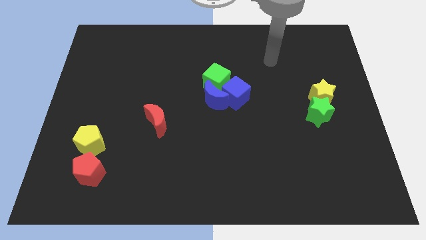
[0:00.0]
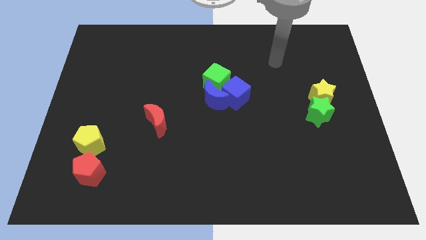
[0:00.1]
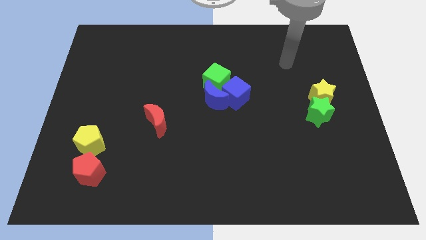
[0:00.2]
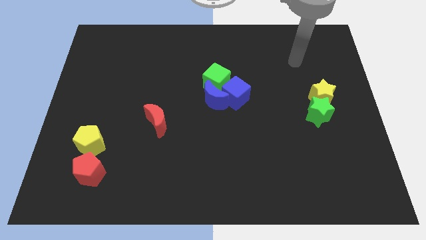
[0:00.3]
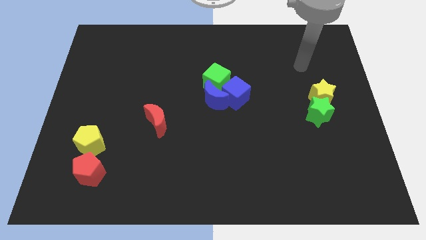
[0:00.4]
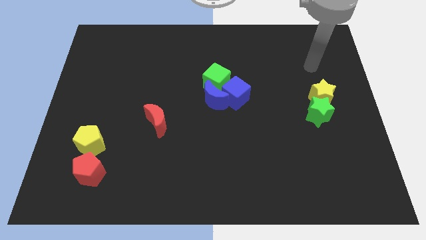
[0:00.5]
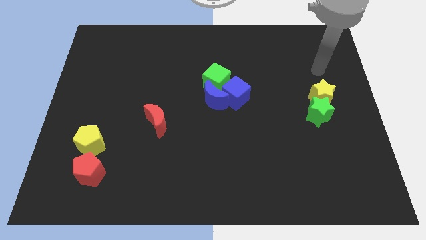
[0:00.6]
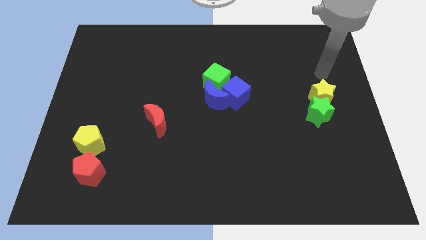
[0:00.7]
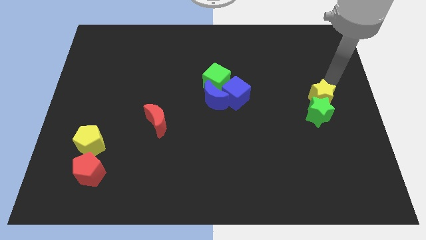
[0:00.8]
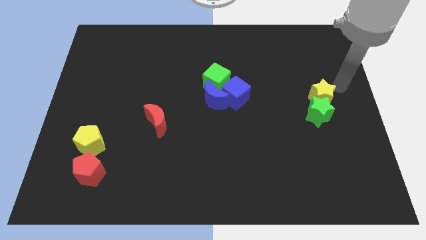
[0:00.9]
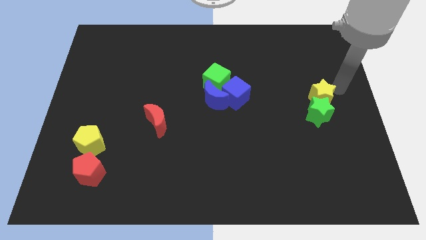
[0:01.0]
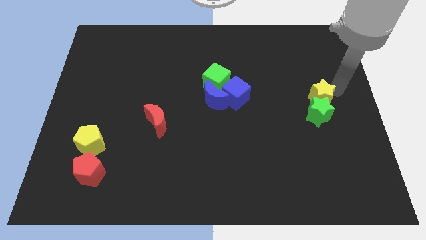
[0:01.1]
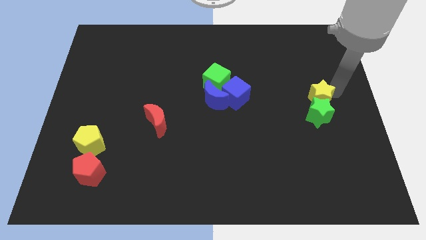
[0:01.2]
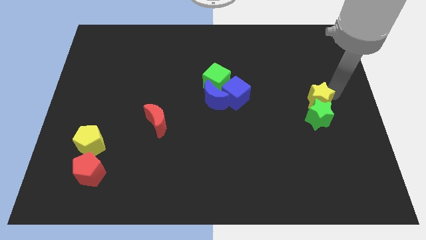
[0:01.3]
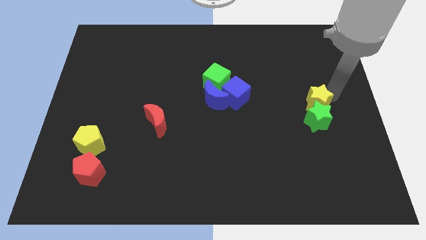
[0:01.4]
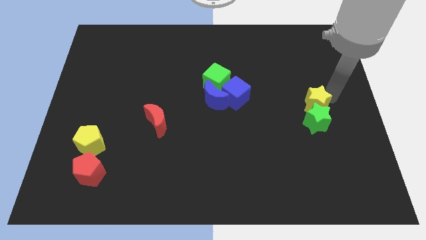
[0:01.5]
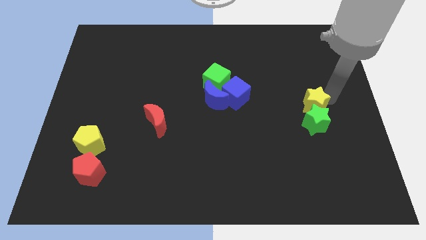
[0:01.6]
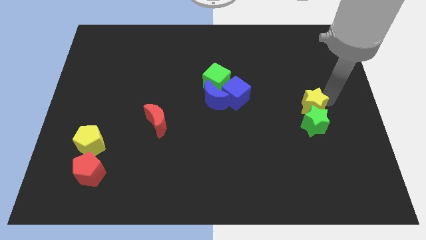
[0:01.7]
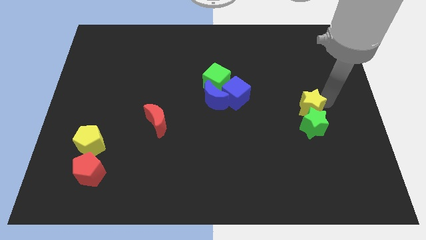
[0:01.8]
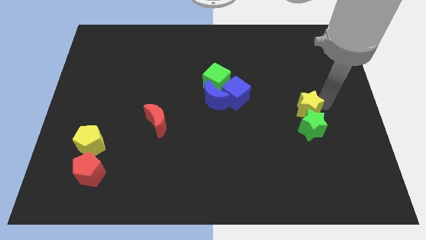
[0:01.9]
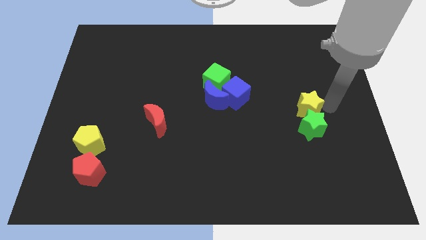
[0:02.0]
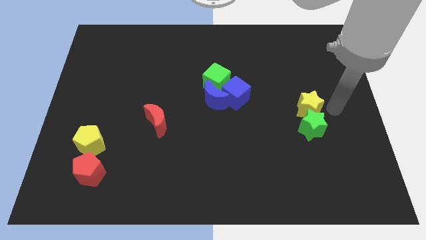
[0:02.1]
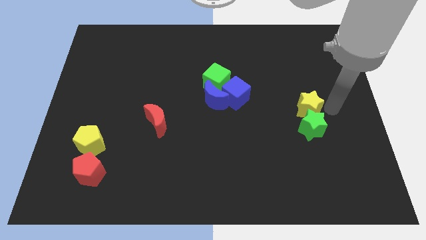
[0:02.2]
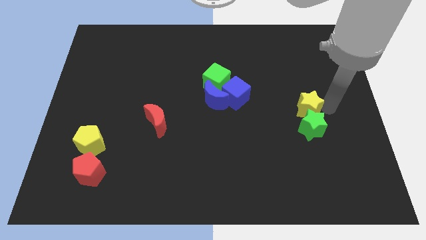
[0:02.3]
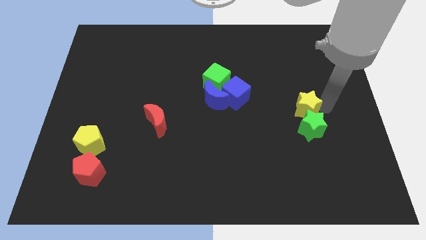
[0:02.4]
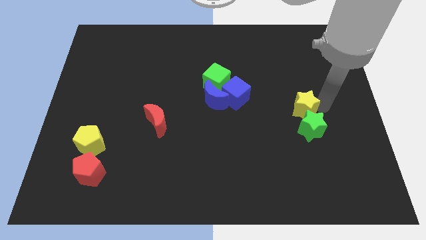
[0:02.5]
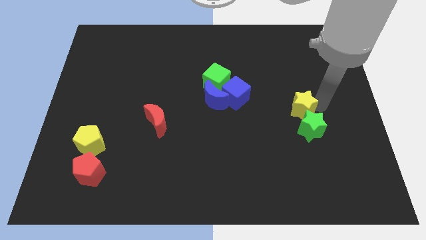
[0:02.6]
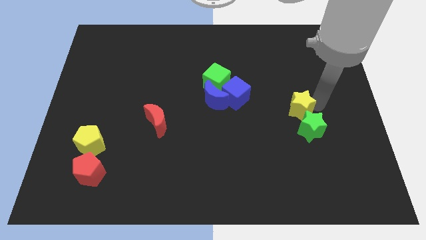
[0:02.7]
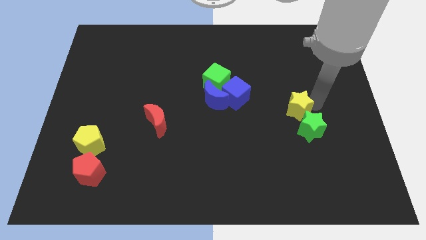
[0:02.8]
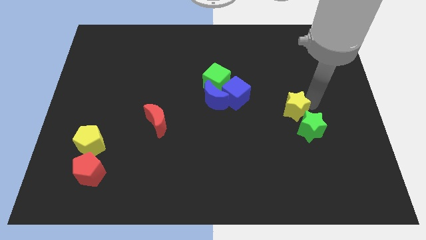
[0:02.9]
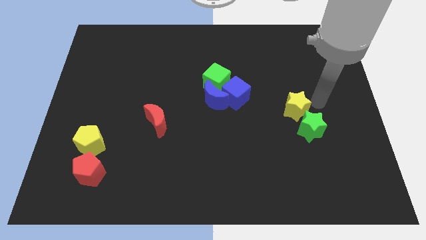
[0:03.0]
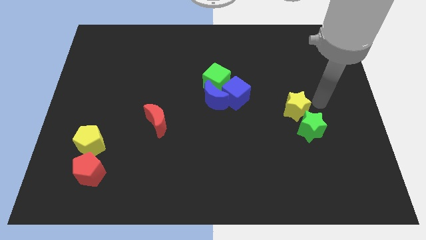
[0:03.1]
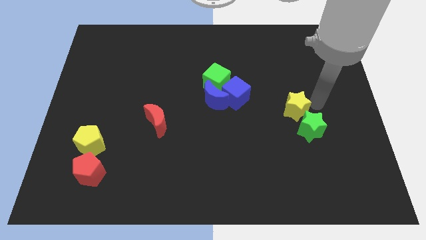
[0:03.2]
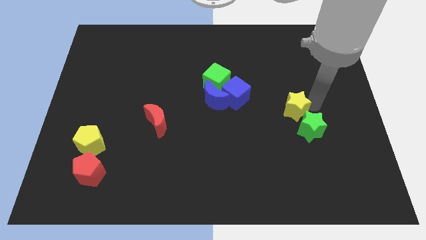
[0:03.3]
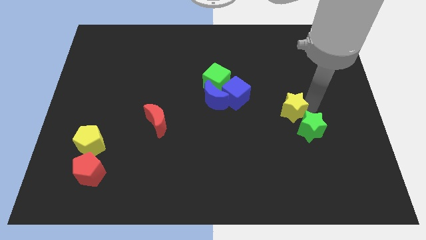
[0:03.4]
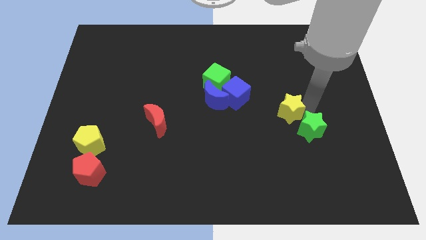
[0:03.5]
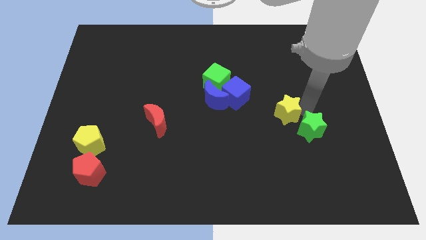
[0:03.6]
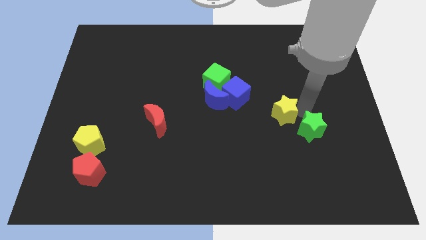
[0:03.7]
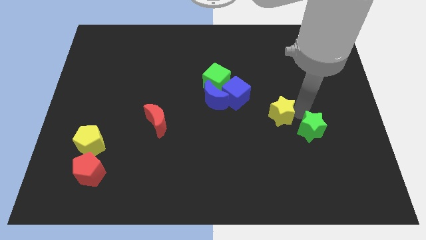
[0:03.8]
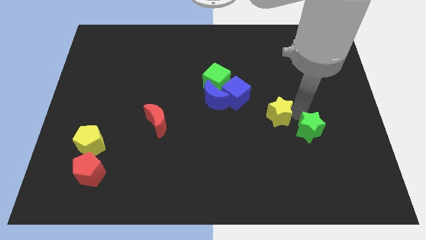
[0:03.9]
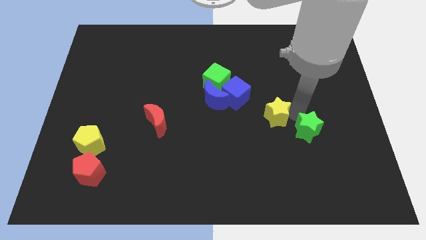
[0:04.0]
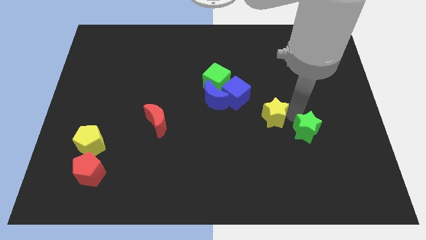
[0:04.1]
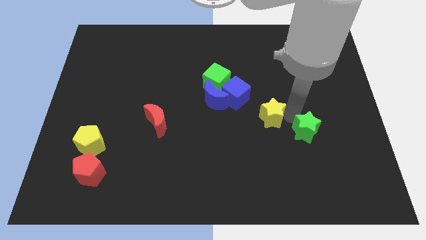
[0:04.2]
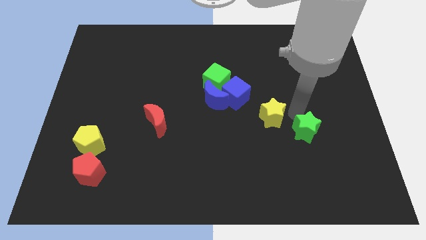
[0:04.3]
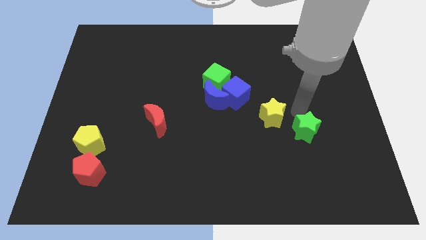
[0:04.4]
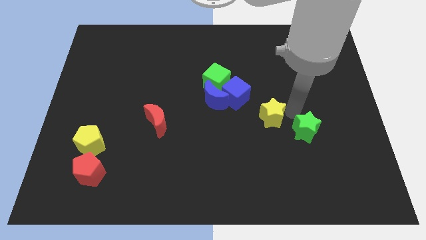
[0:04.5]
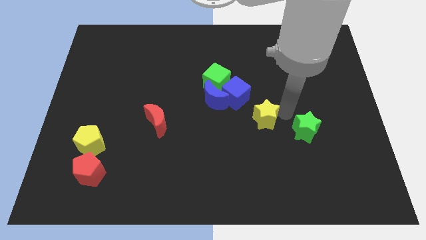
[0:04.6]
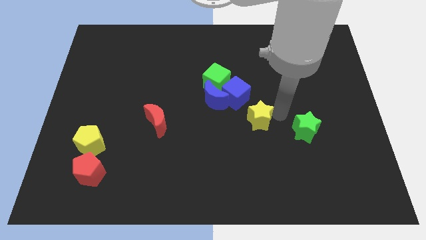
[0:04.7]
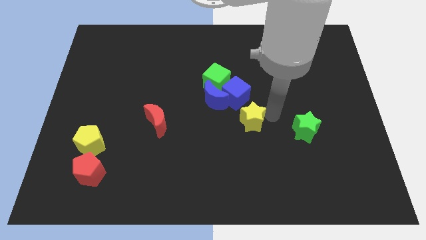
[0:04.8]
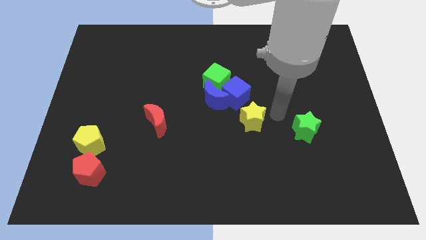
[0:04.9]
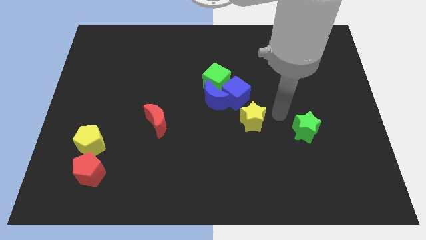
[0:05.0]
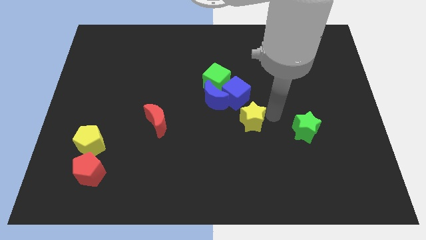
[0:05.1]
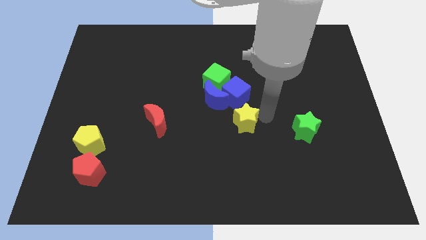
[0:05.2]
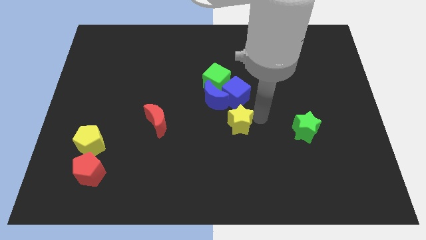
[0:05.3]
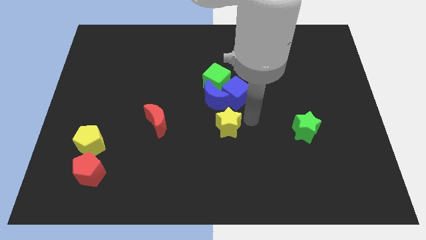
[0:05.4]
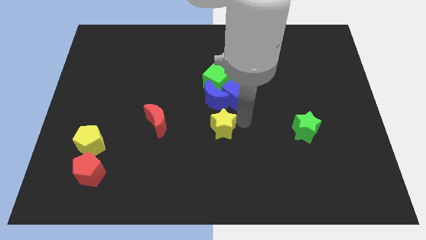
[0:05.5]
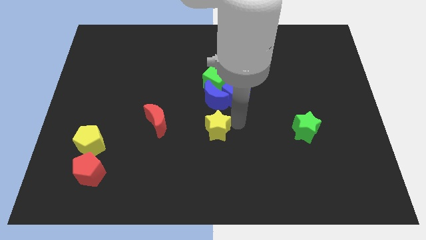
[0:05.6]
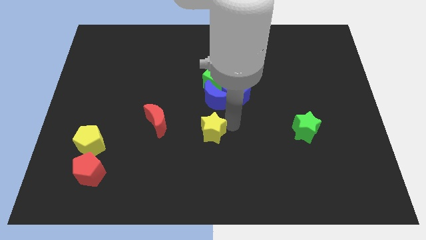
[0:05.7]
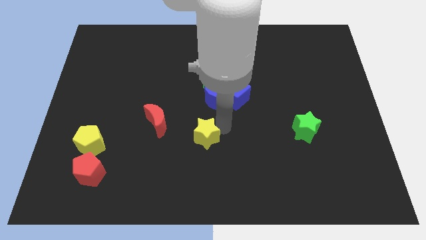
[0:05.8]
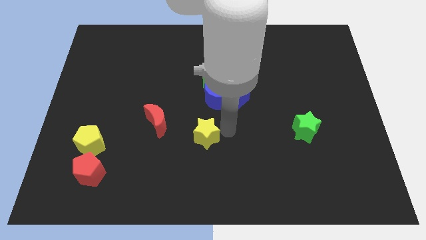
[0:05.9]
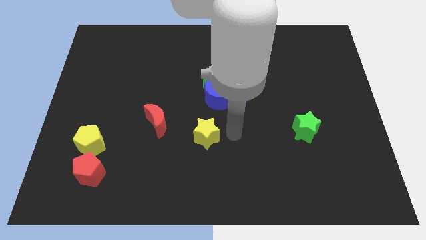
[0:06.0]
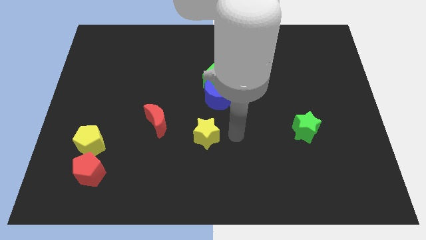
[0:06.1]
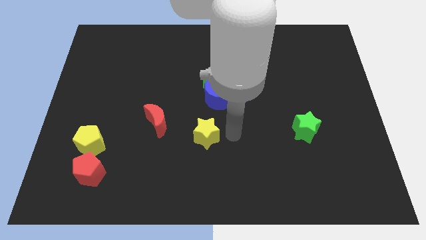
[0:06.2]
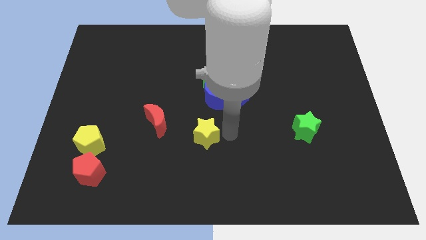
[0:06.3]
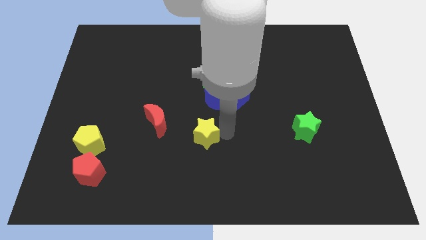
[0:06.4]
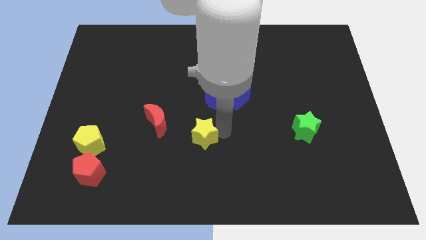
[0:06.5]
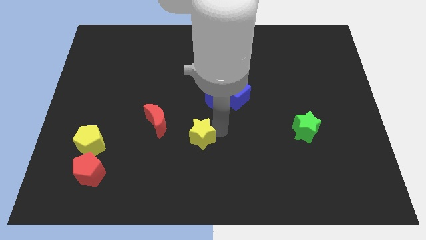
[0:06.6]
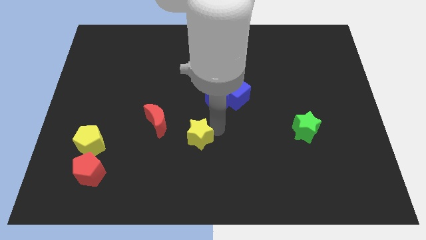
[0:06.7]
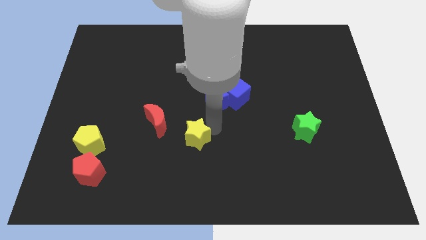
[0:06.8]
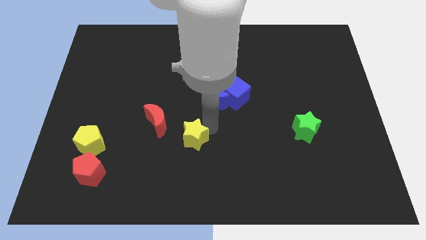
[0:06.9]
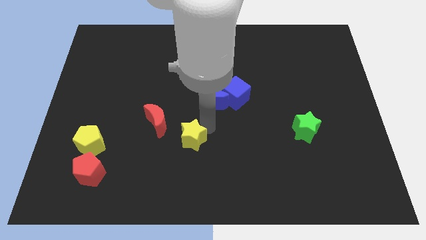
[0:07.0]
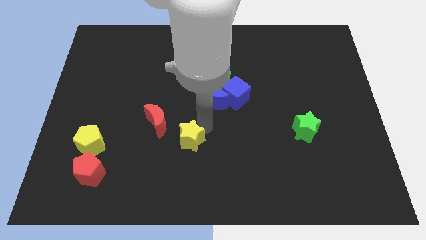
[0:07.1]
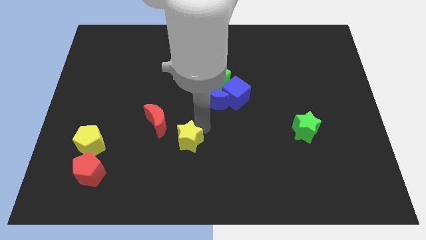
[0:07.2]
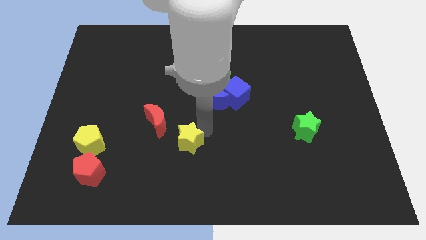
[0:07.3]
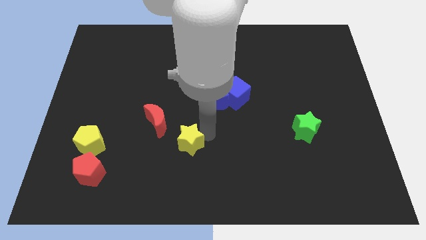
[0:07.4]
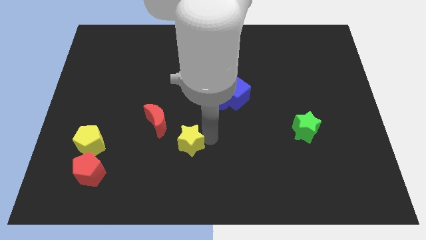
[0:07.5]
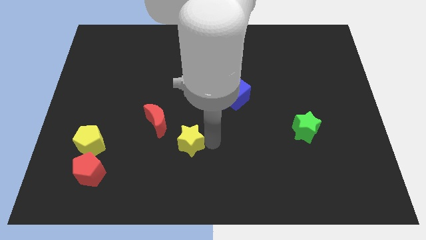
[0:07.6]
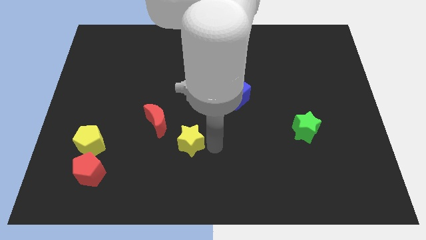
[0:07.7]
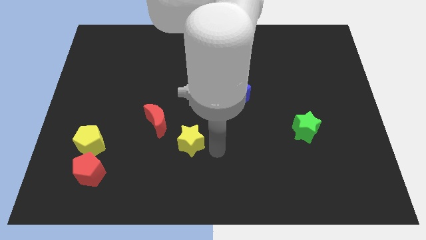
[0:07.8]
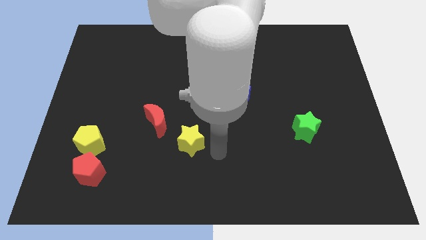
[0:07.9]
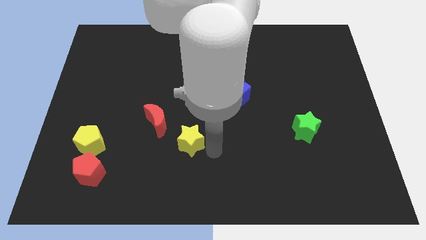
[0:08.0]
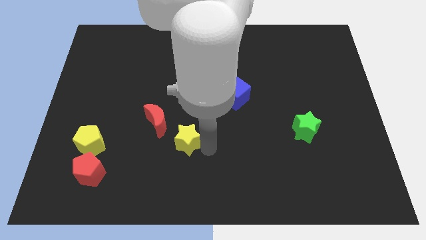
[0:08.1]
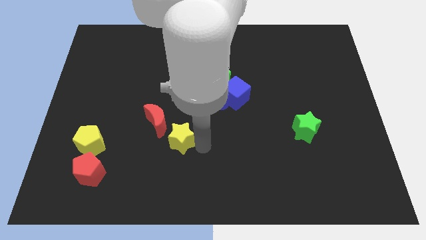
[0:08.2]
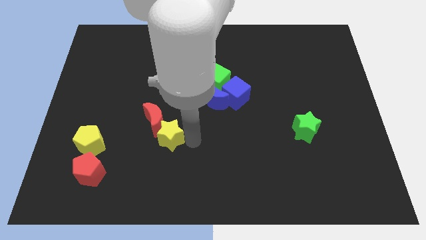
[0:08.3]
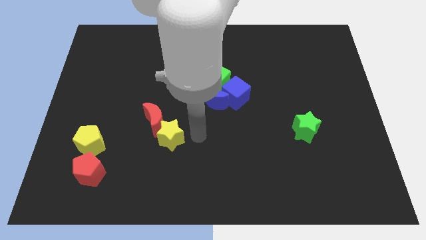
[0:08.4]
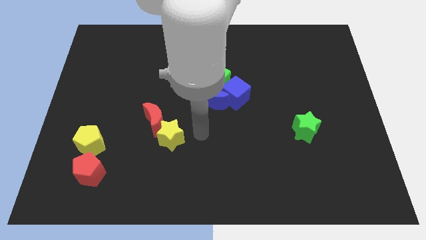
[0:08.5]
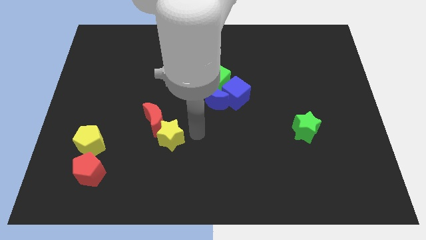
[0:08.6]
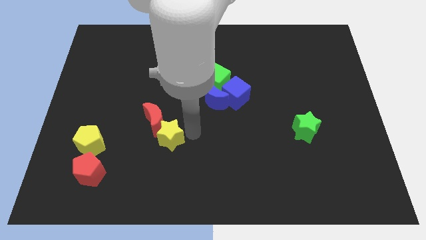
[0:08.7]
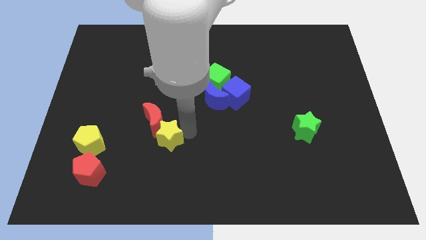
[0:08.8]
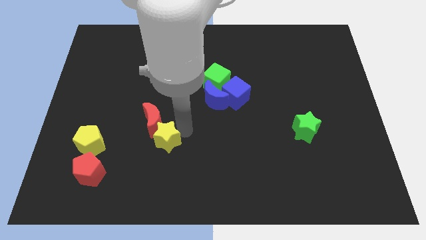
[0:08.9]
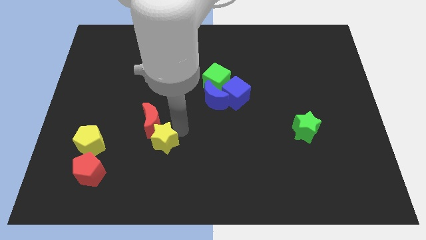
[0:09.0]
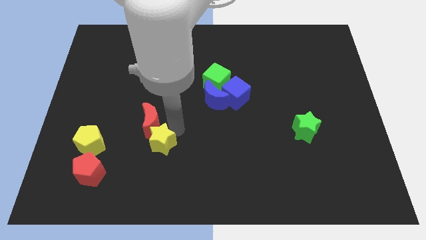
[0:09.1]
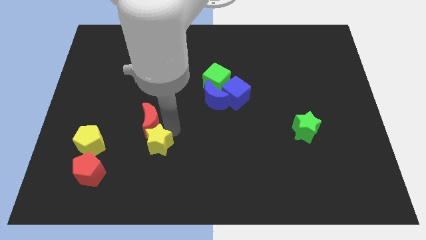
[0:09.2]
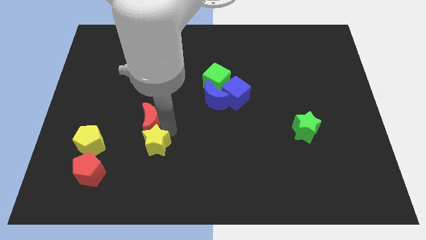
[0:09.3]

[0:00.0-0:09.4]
move the yellow star diagonally down and to the left of the red moon
